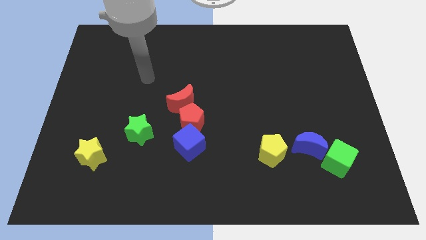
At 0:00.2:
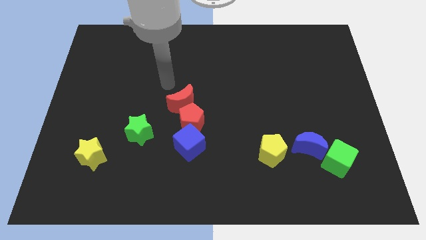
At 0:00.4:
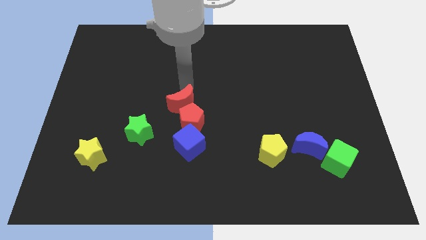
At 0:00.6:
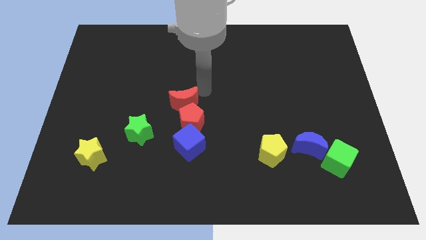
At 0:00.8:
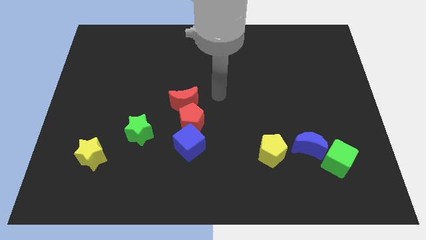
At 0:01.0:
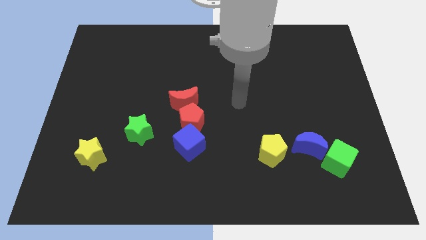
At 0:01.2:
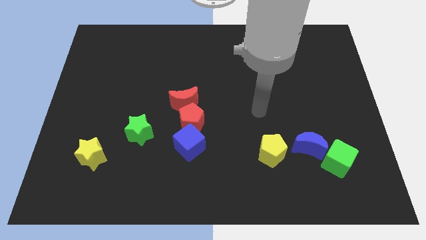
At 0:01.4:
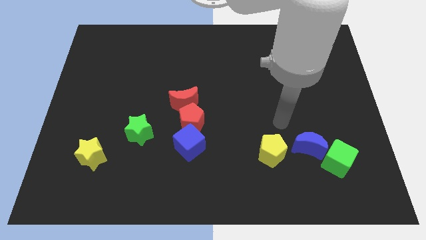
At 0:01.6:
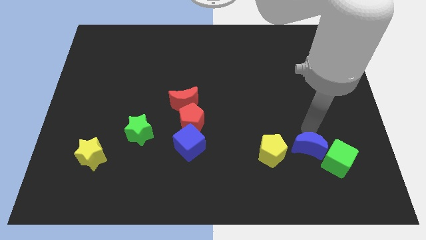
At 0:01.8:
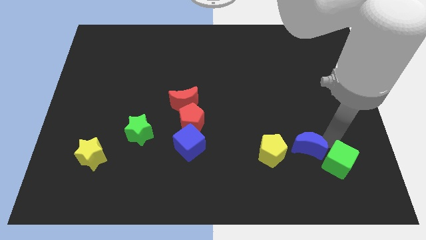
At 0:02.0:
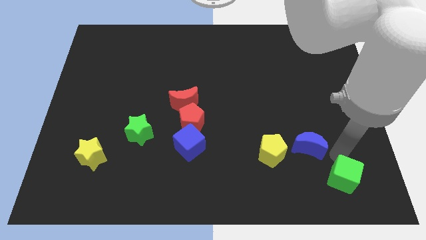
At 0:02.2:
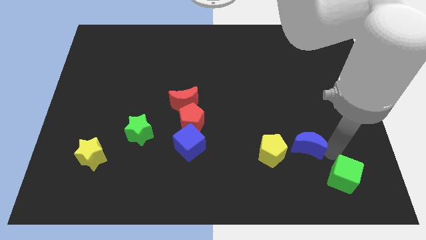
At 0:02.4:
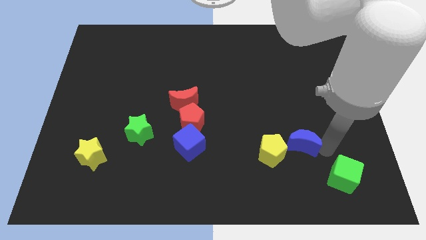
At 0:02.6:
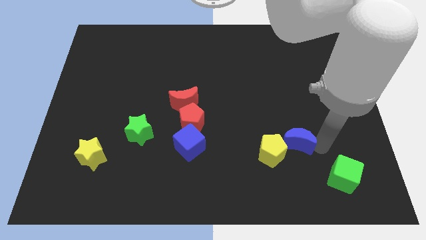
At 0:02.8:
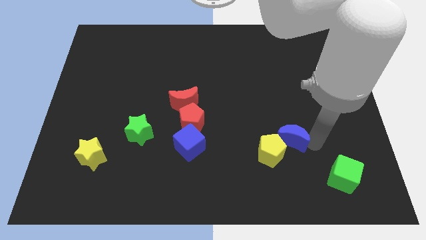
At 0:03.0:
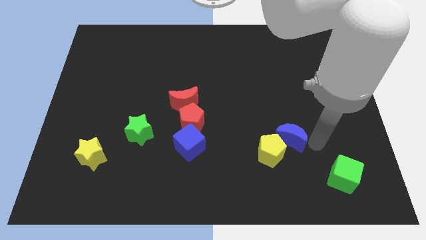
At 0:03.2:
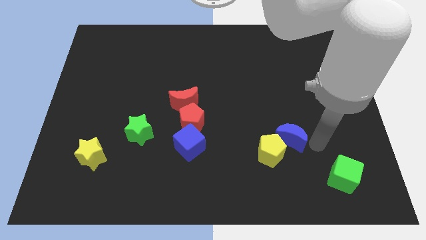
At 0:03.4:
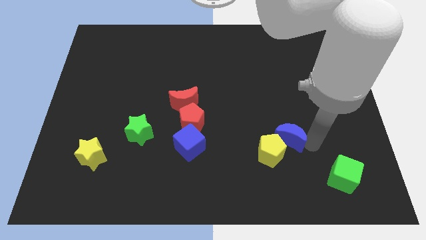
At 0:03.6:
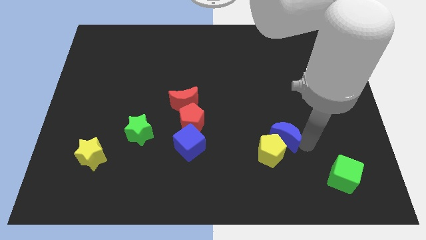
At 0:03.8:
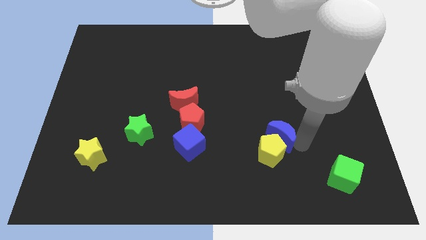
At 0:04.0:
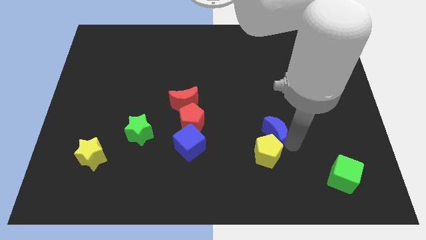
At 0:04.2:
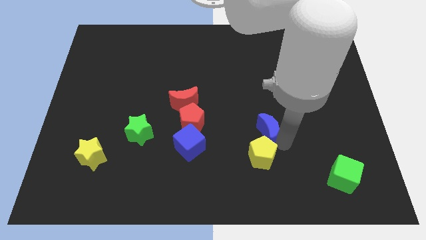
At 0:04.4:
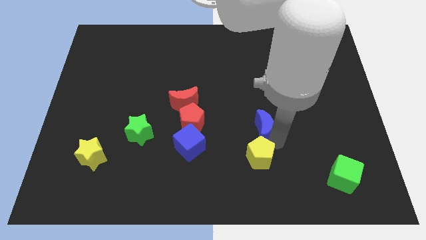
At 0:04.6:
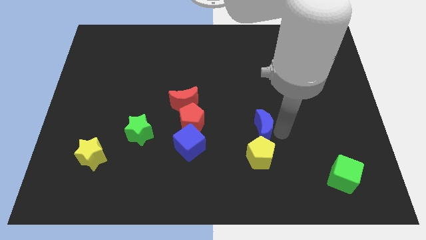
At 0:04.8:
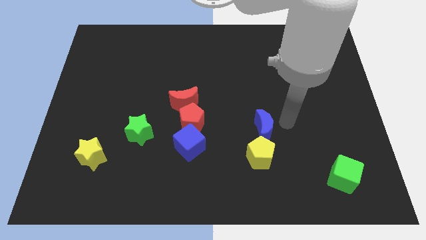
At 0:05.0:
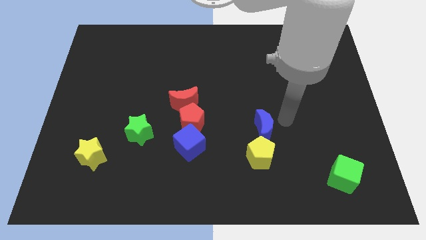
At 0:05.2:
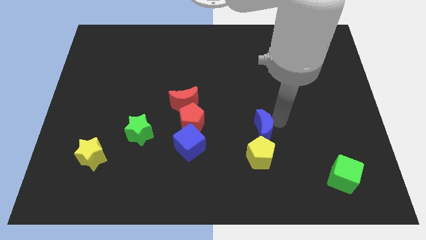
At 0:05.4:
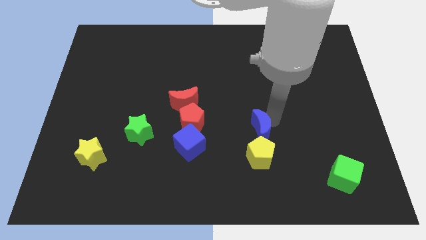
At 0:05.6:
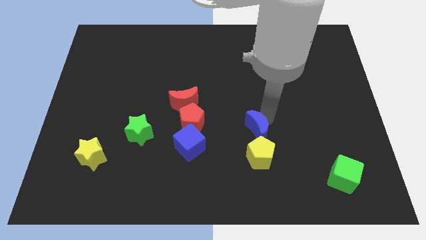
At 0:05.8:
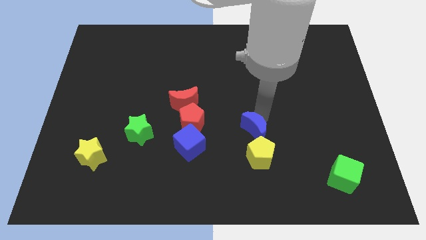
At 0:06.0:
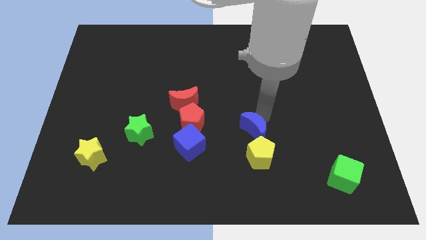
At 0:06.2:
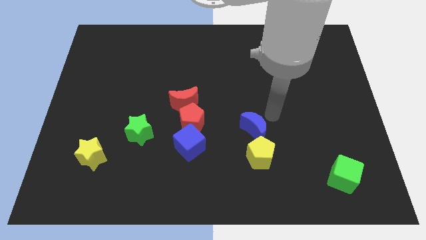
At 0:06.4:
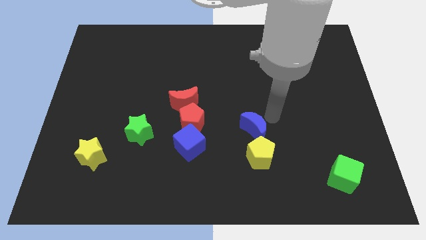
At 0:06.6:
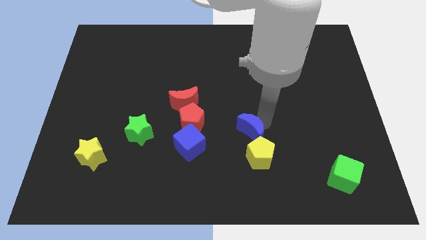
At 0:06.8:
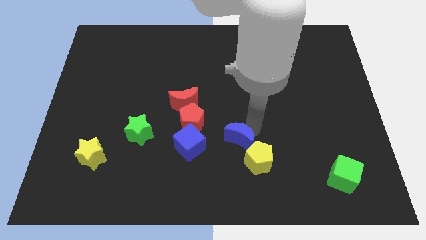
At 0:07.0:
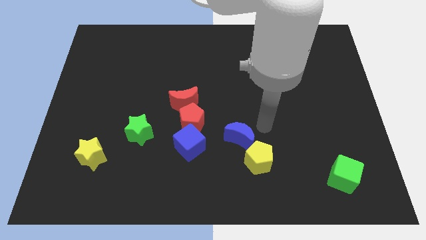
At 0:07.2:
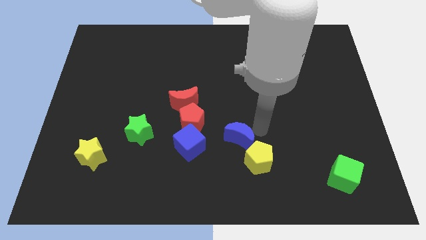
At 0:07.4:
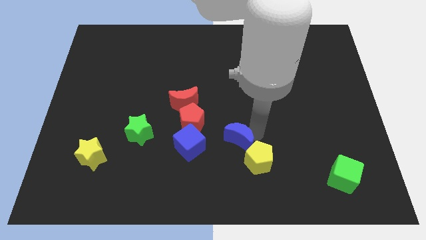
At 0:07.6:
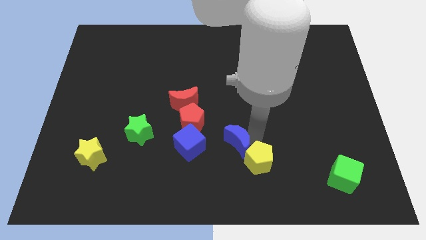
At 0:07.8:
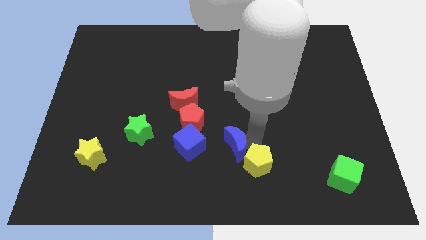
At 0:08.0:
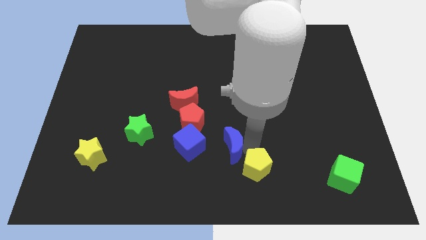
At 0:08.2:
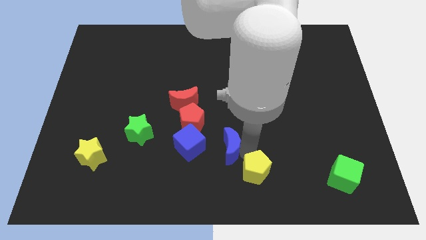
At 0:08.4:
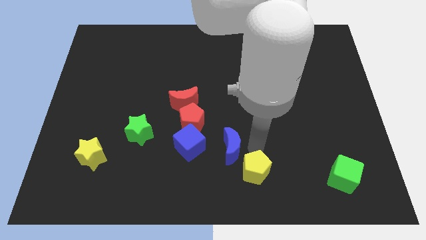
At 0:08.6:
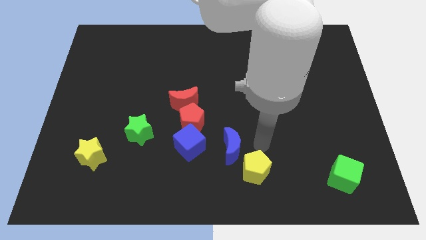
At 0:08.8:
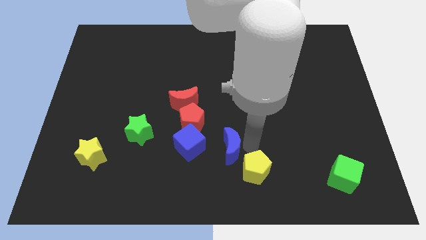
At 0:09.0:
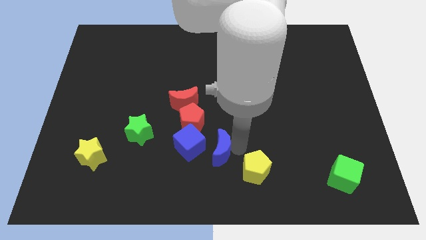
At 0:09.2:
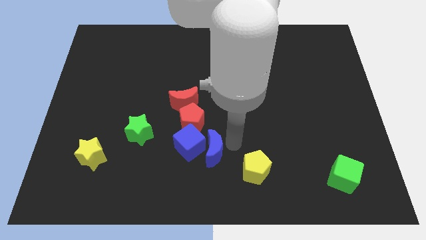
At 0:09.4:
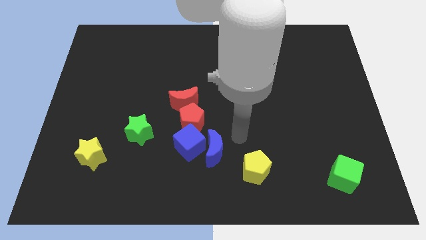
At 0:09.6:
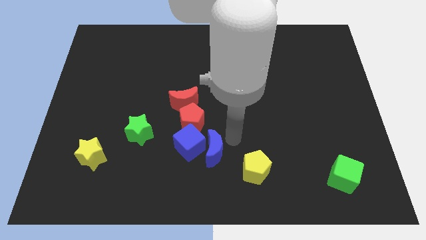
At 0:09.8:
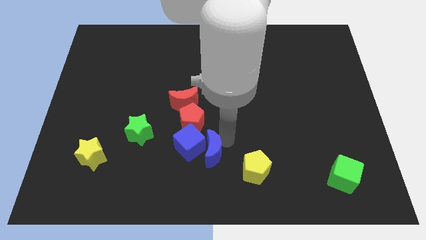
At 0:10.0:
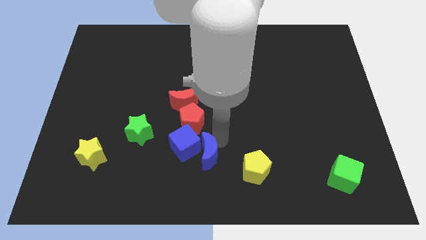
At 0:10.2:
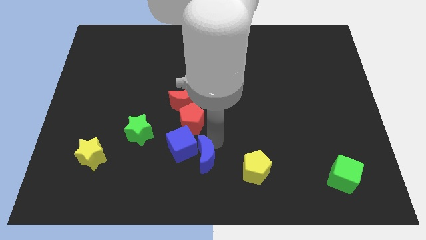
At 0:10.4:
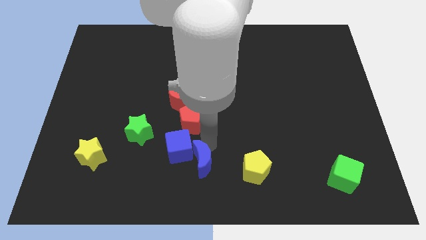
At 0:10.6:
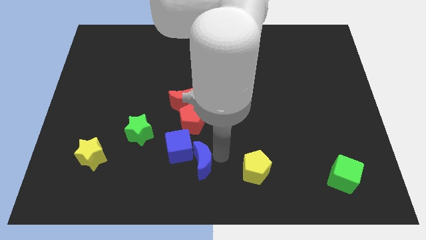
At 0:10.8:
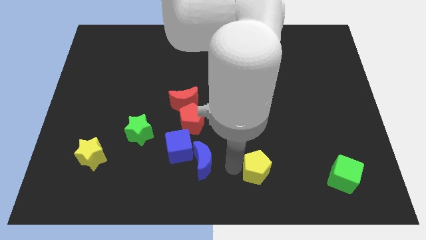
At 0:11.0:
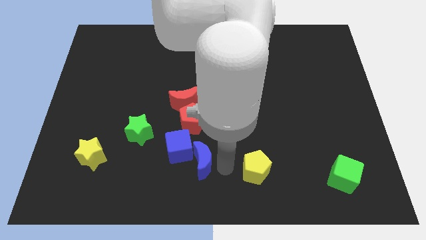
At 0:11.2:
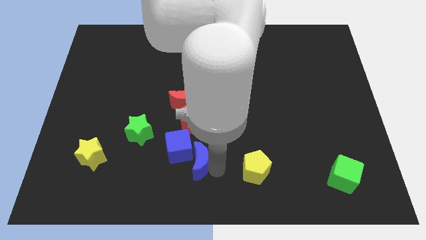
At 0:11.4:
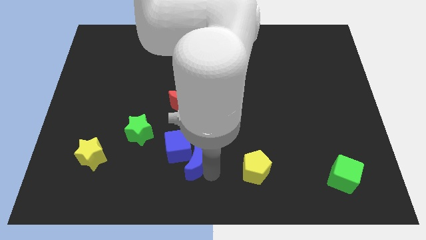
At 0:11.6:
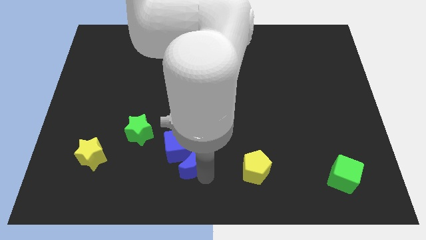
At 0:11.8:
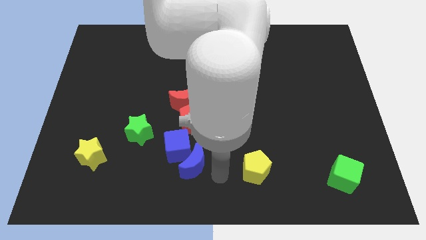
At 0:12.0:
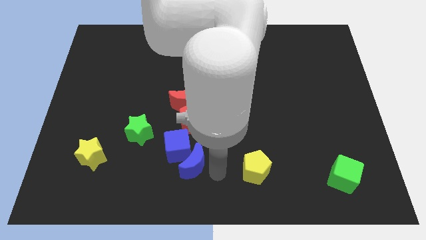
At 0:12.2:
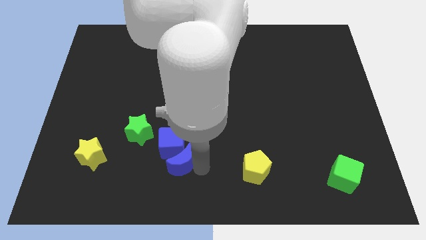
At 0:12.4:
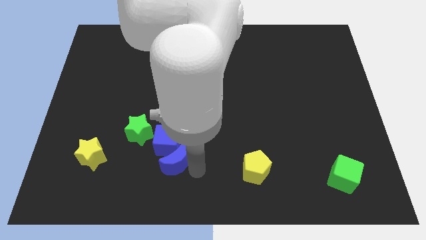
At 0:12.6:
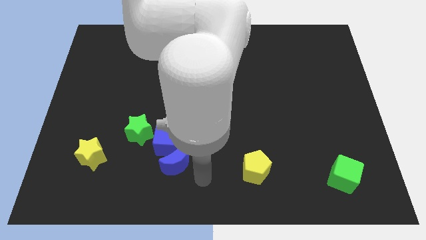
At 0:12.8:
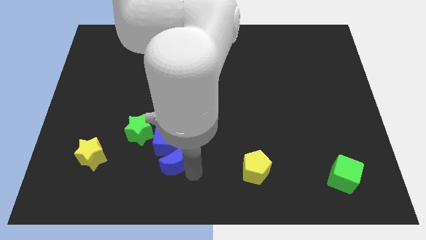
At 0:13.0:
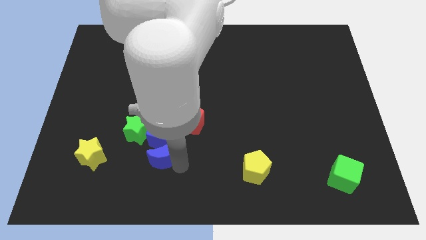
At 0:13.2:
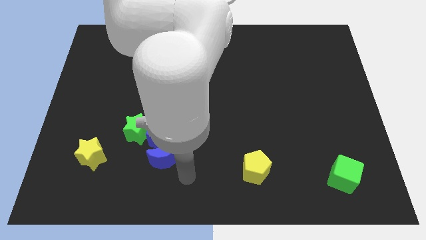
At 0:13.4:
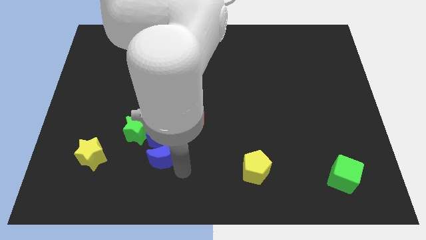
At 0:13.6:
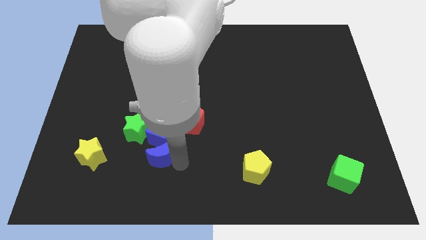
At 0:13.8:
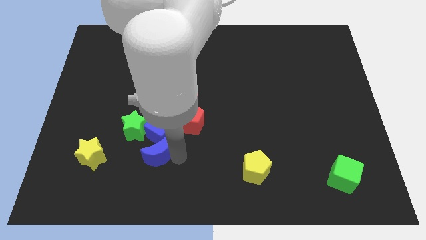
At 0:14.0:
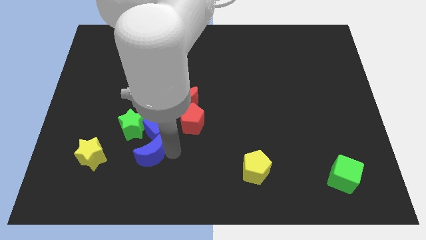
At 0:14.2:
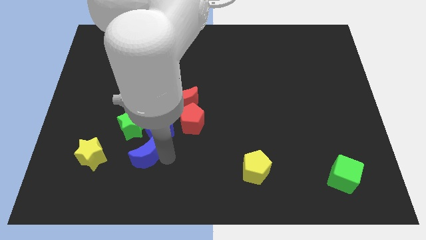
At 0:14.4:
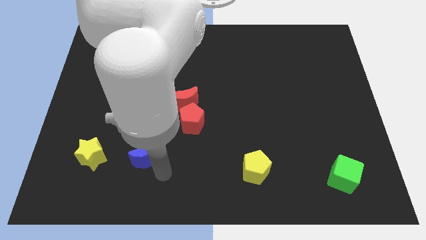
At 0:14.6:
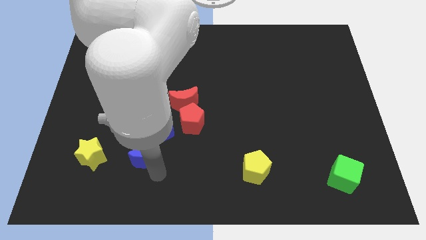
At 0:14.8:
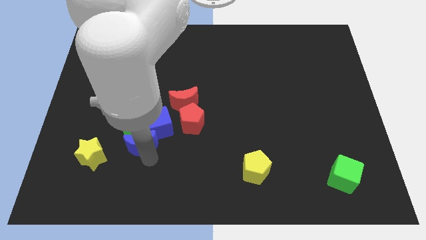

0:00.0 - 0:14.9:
put the blue moon to the green star
